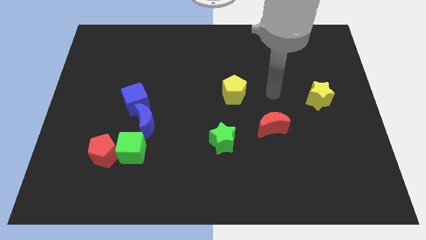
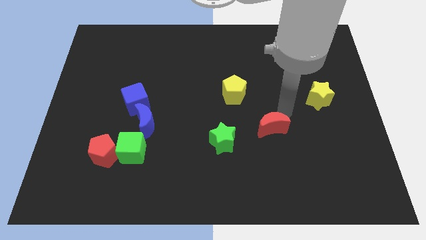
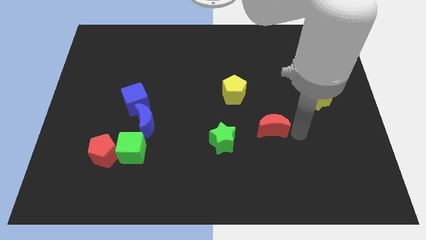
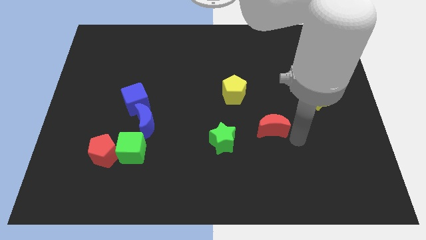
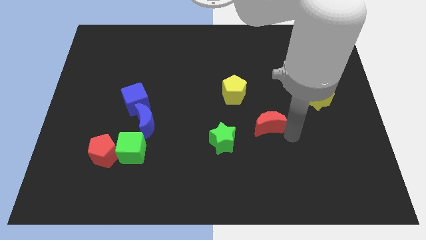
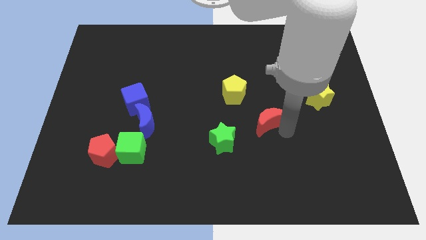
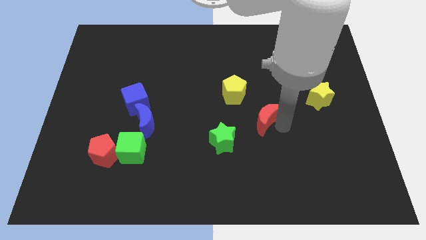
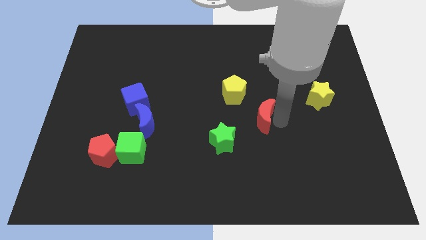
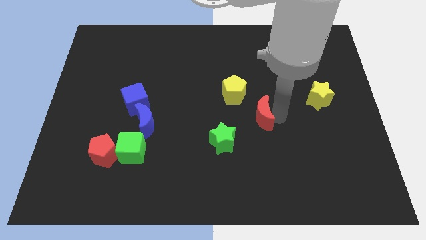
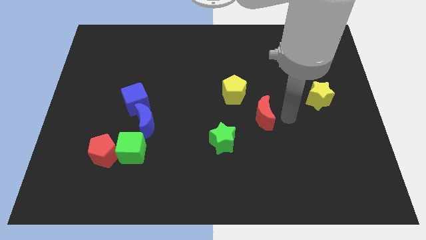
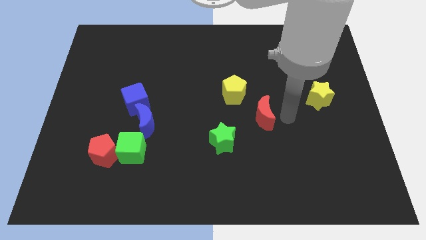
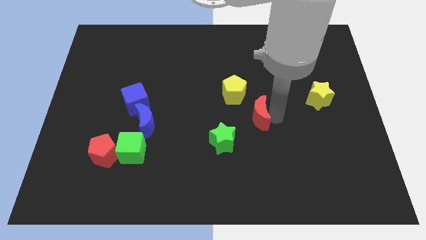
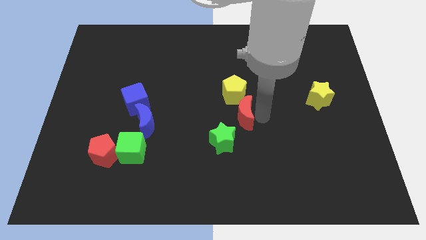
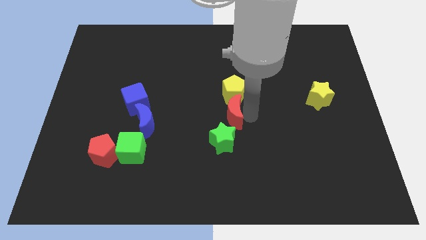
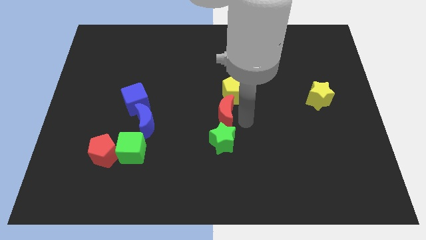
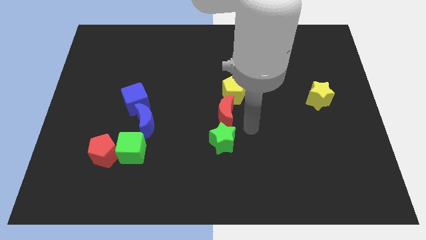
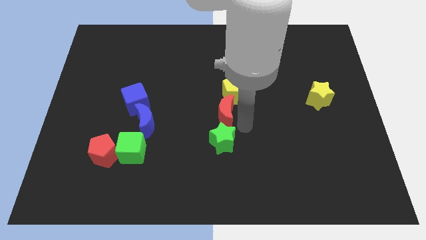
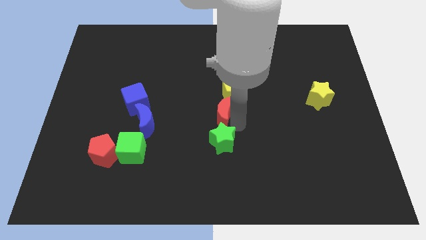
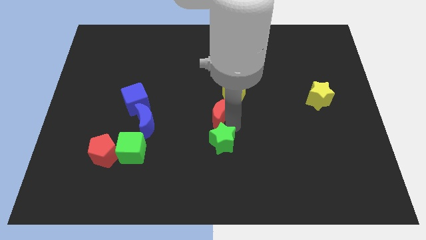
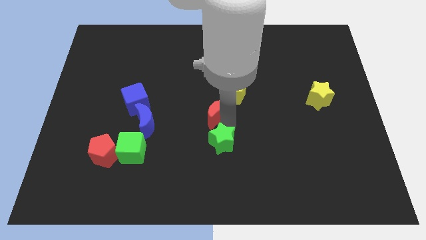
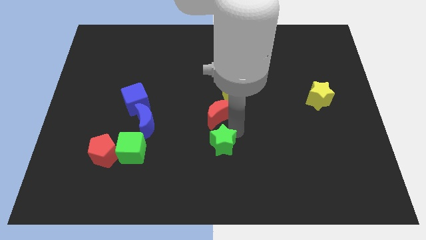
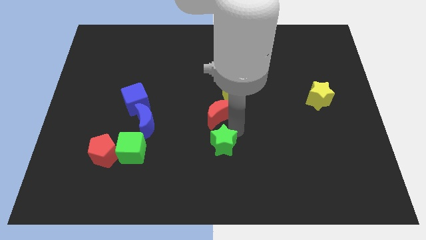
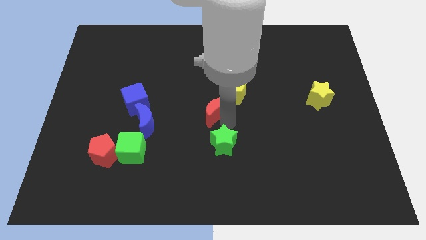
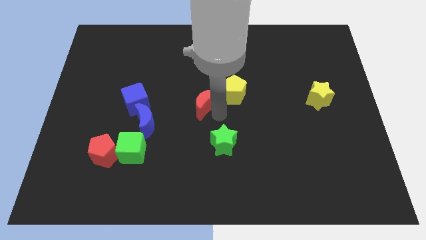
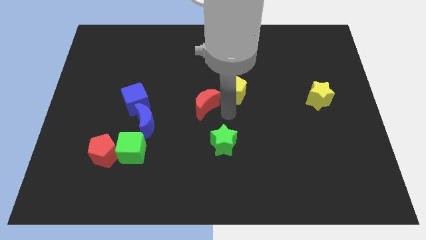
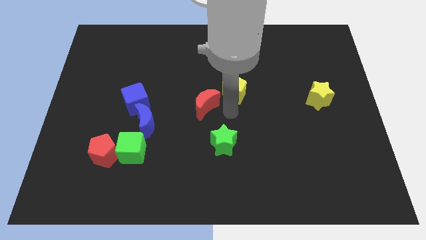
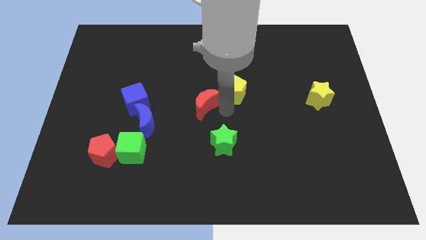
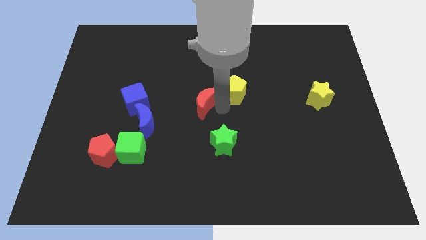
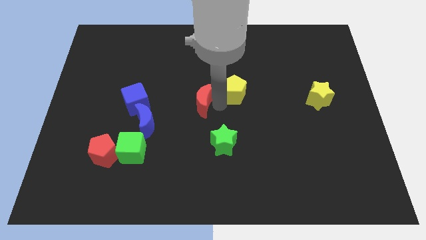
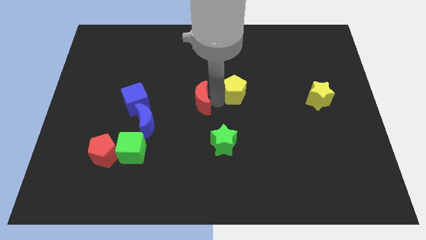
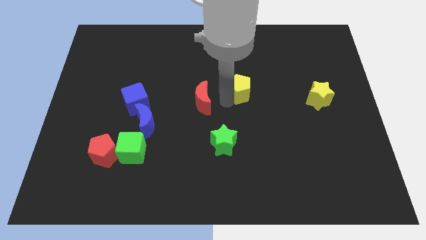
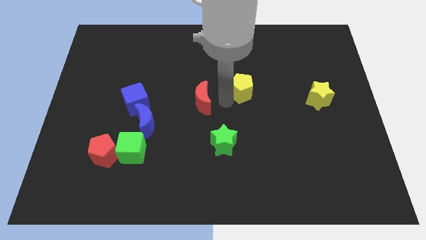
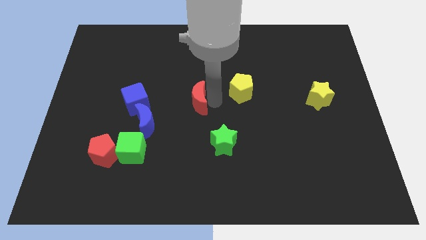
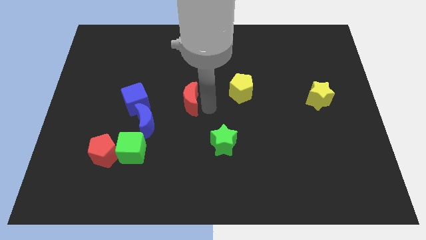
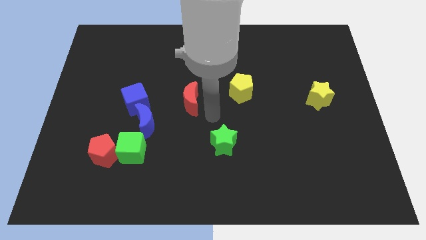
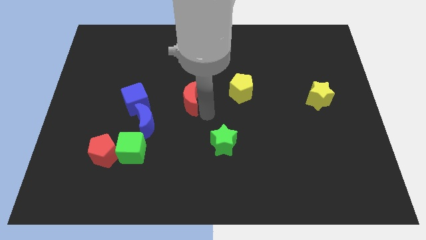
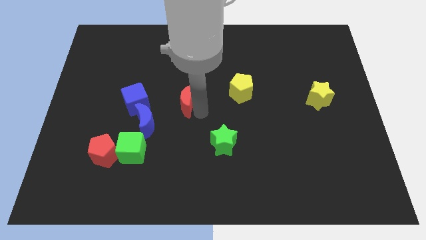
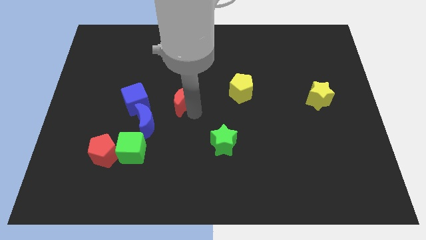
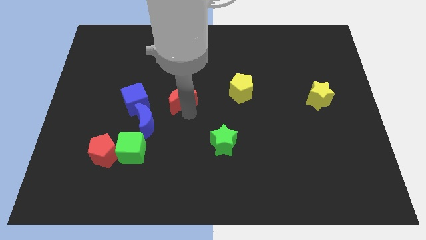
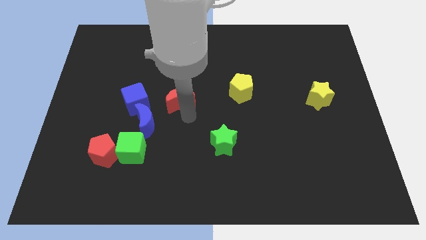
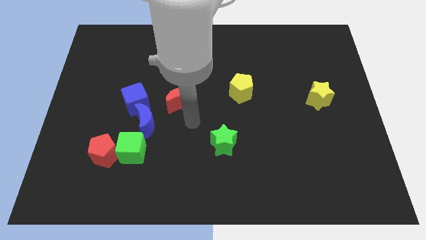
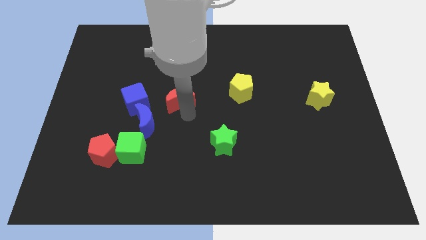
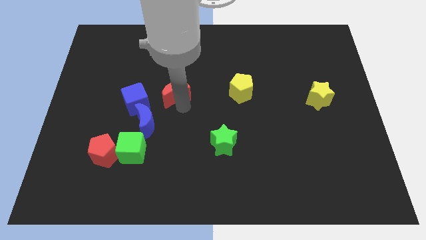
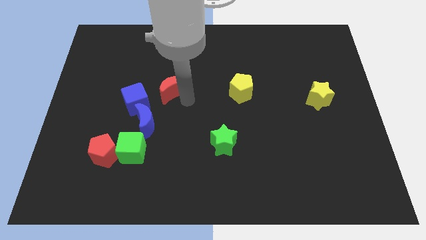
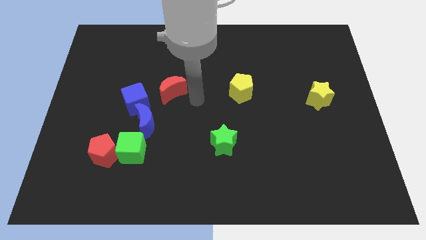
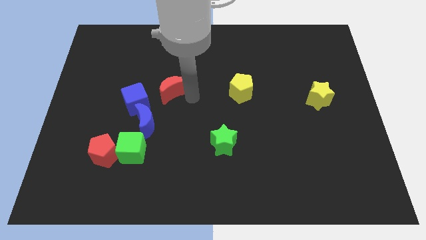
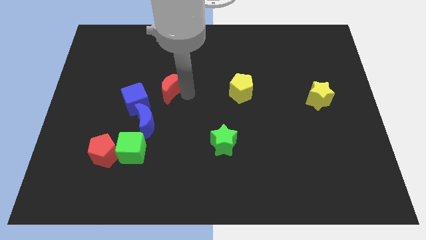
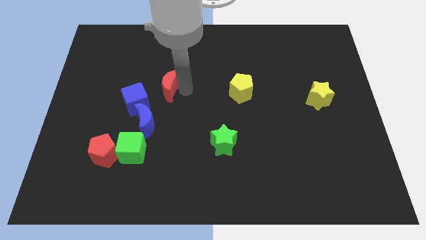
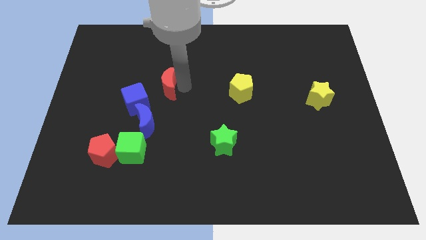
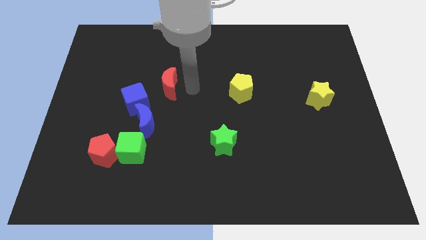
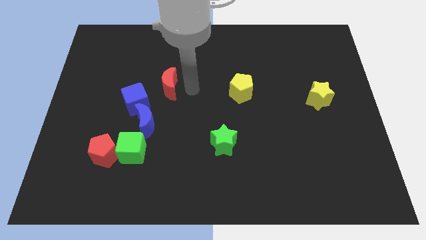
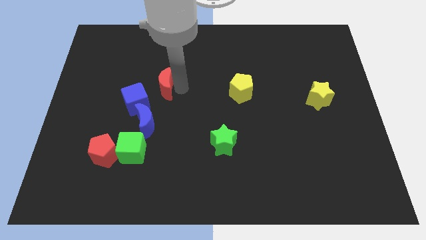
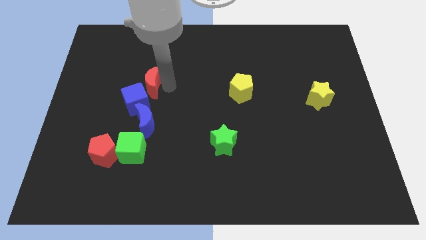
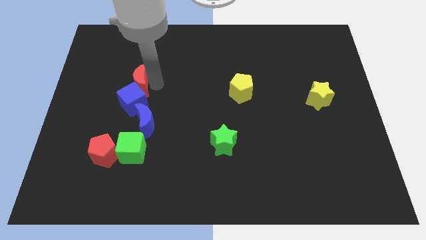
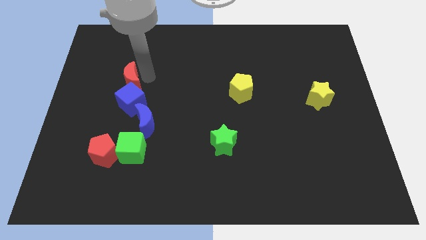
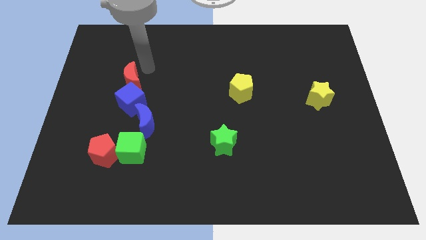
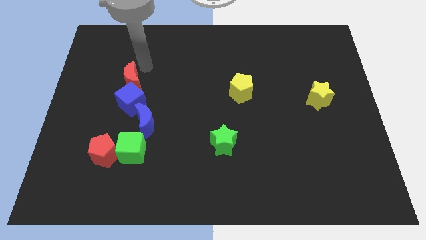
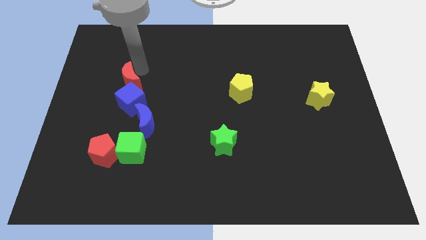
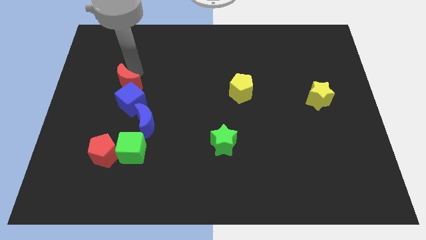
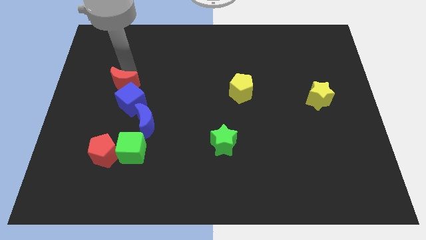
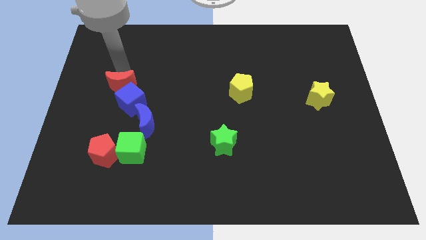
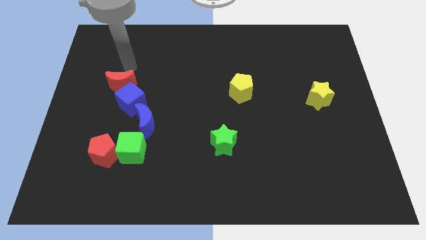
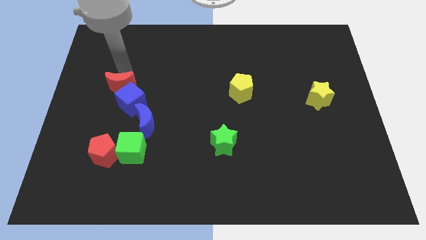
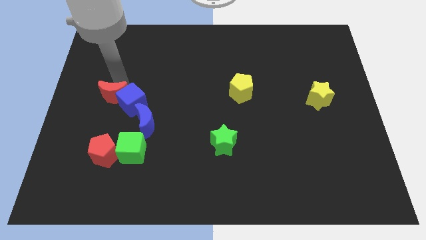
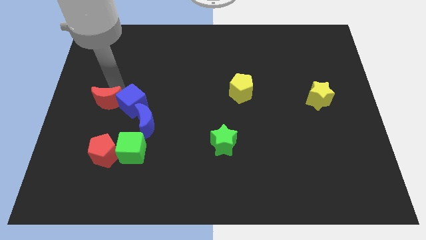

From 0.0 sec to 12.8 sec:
slide the red moon to the bottom left side of the blue cube

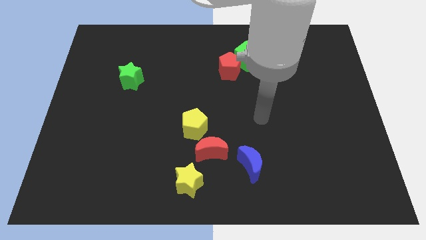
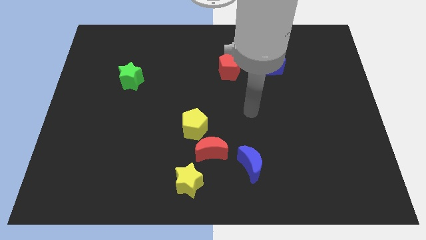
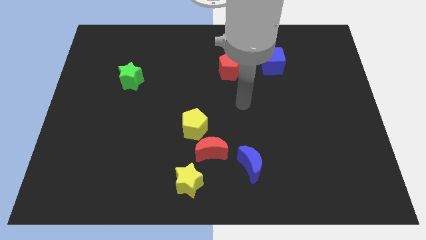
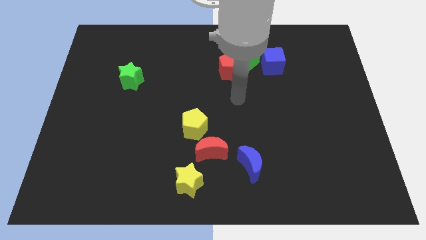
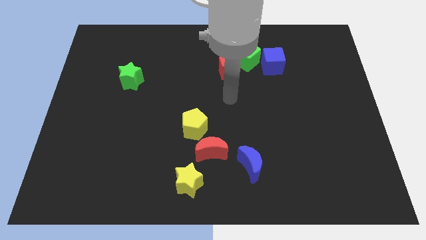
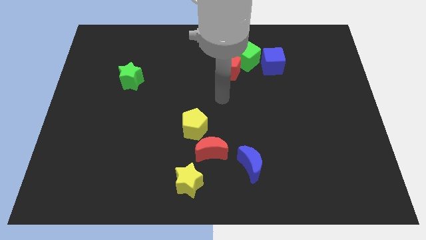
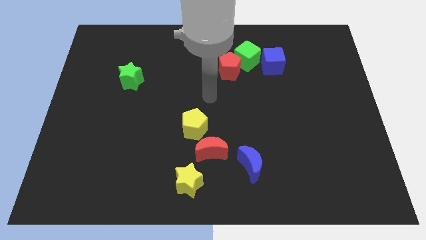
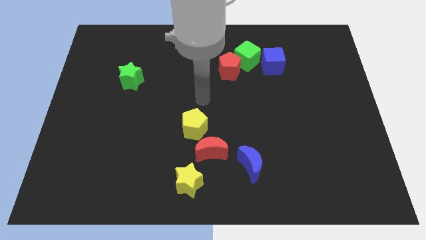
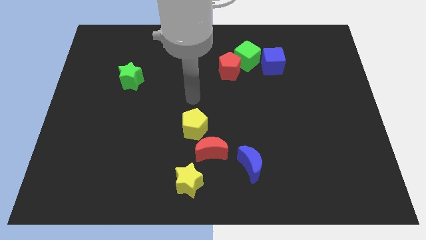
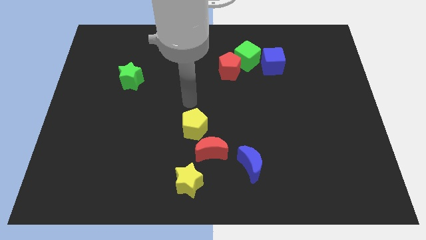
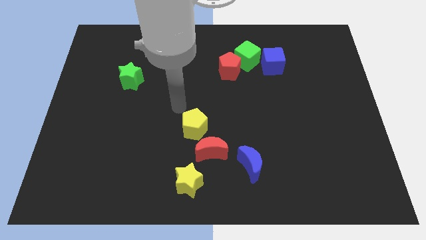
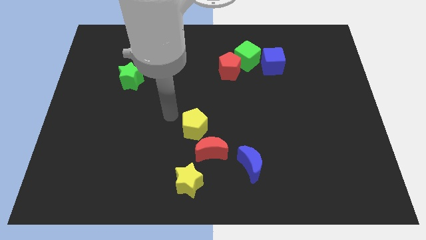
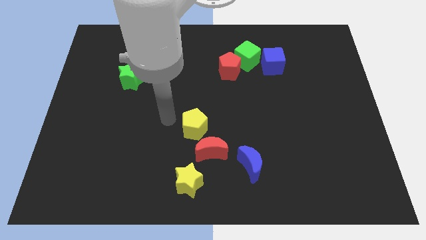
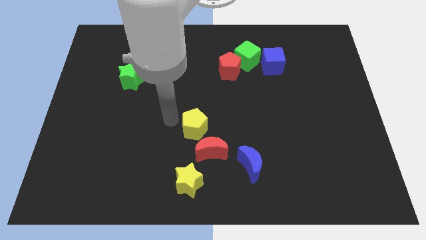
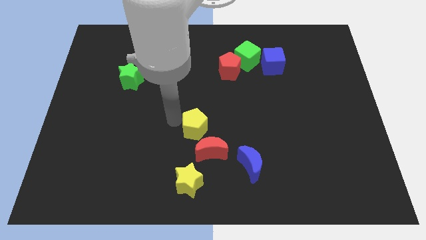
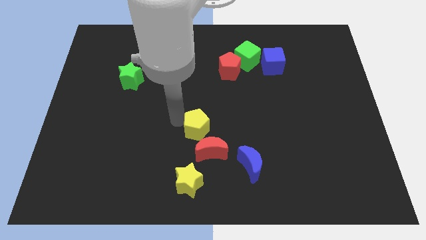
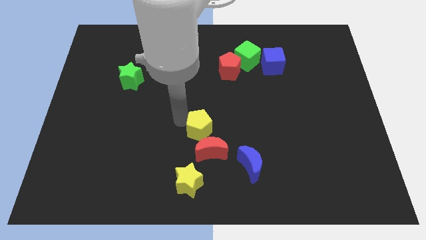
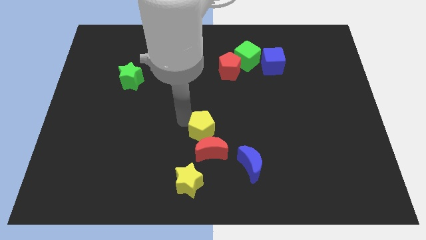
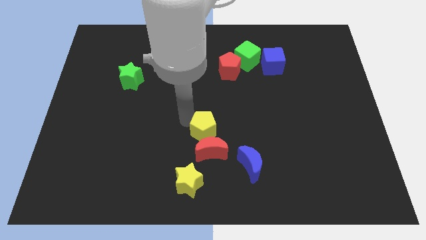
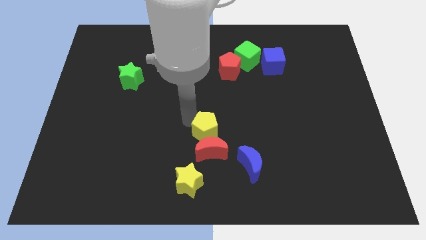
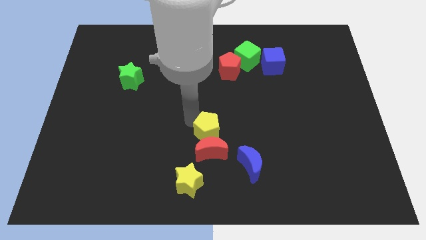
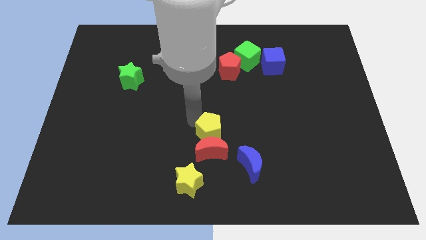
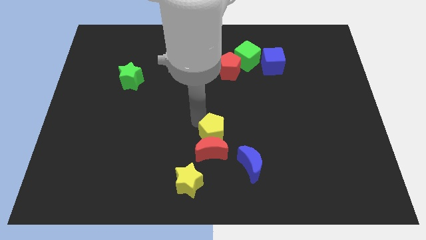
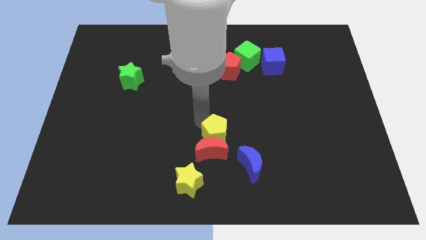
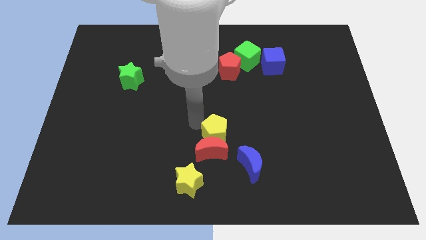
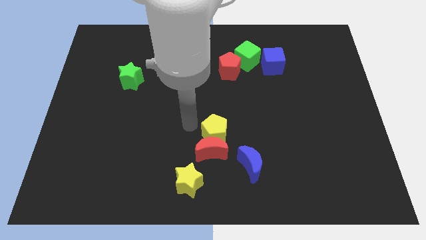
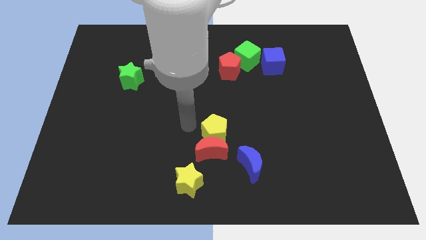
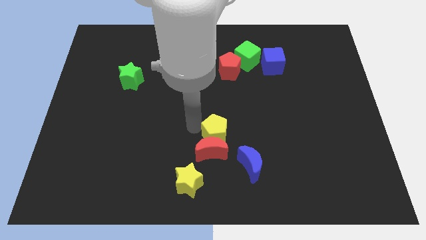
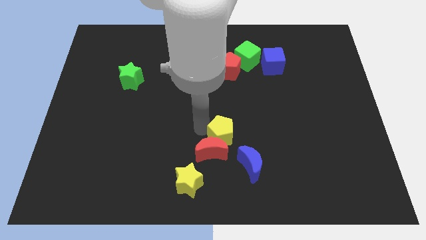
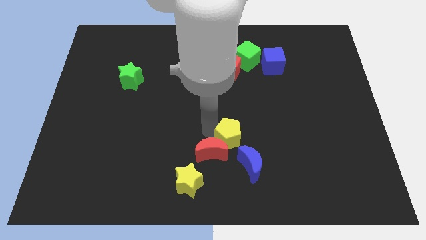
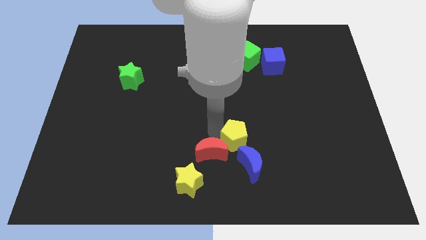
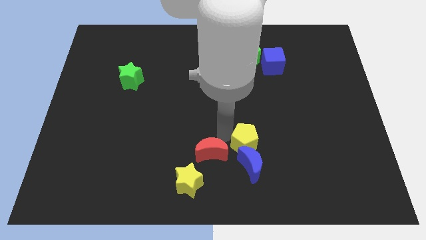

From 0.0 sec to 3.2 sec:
put the yellow pentagon to the top right of the blue moon
